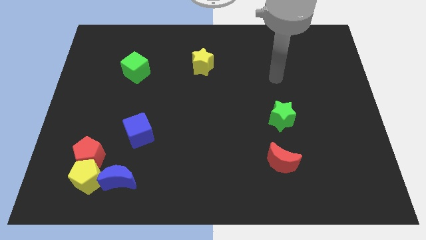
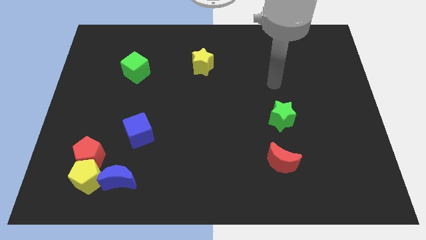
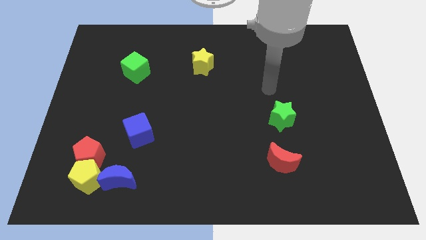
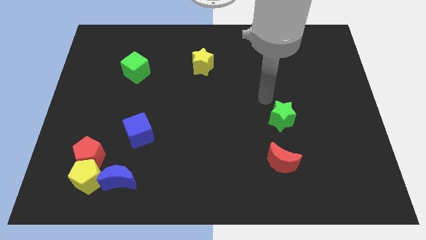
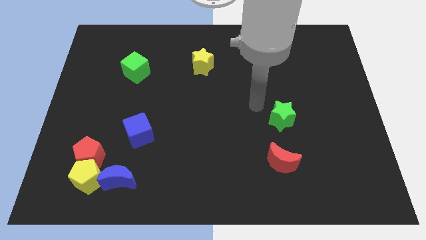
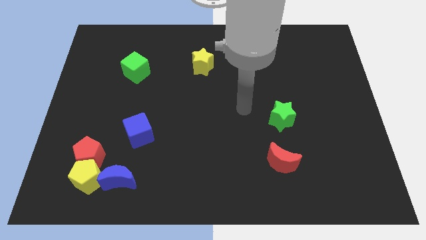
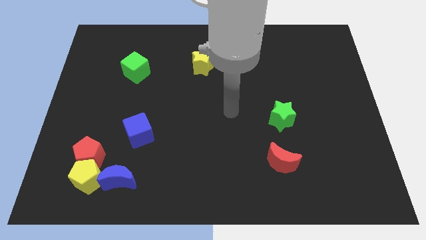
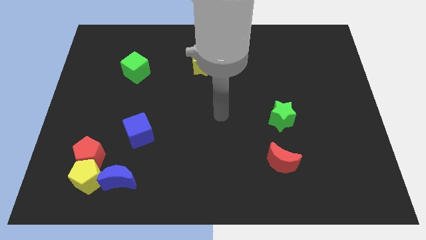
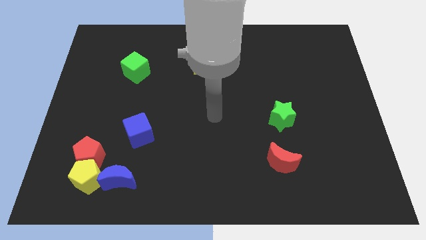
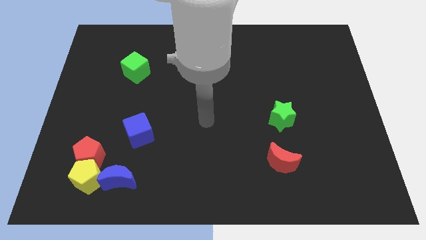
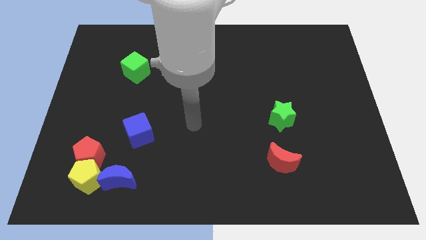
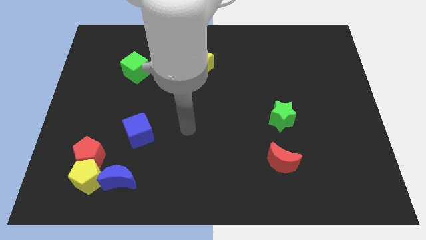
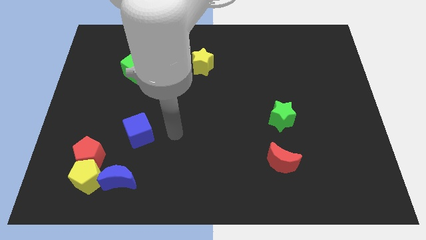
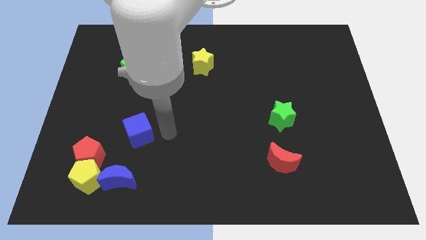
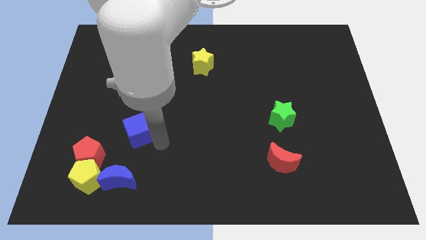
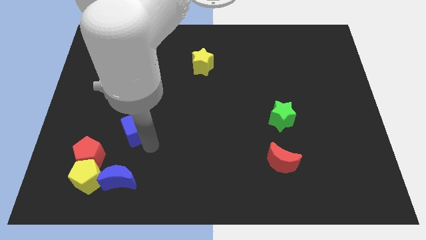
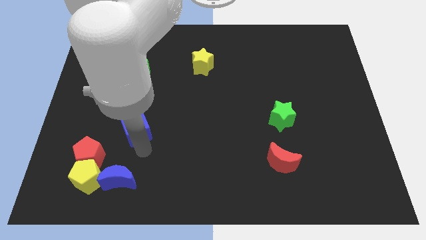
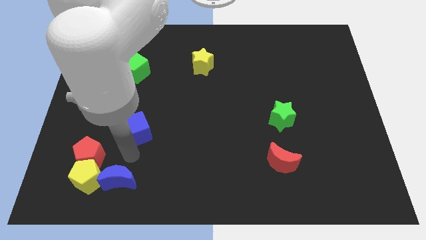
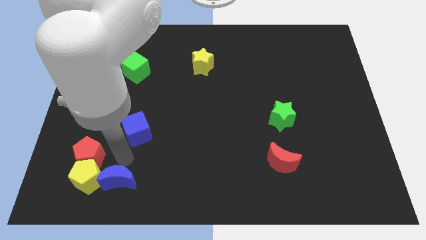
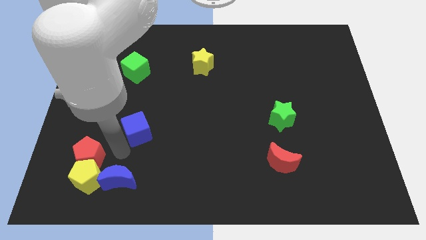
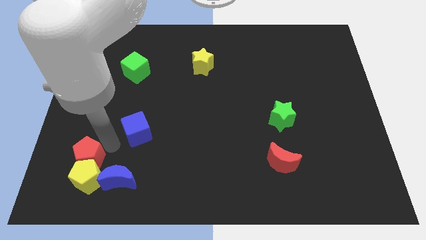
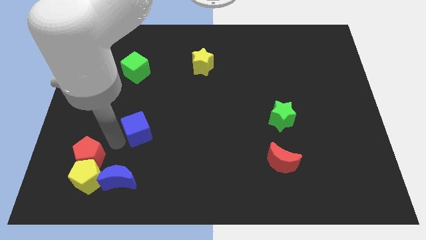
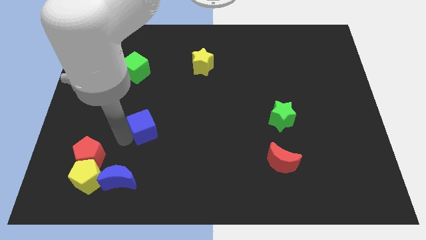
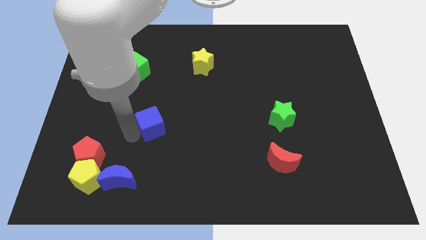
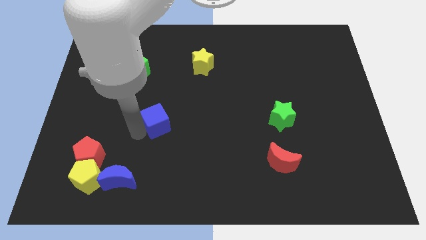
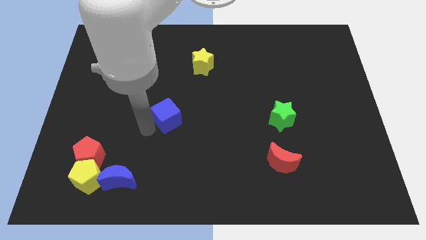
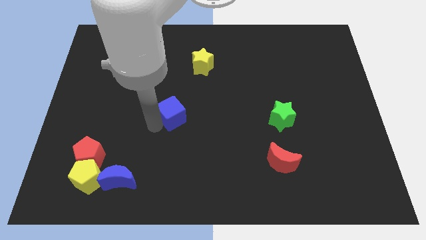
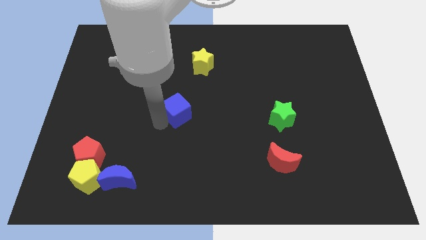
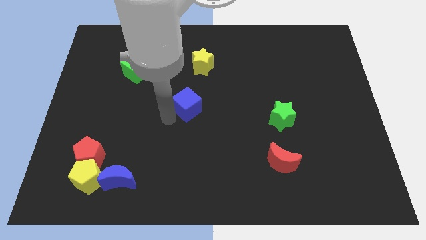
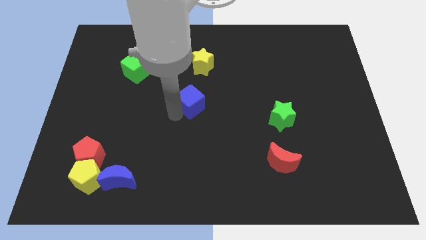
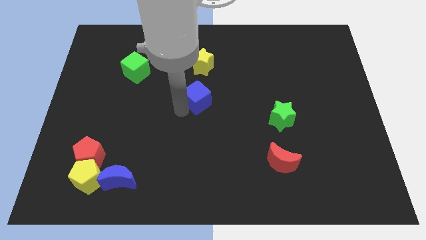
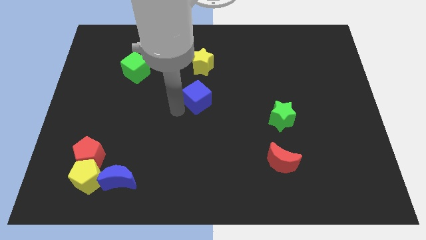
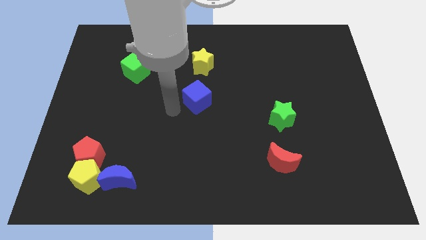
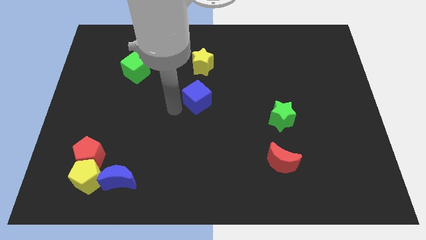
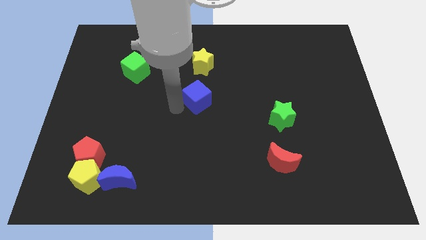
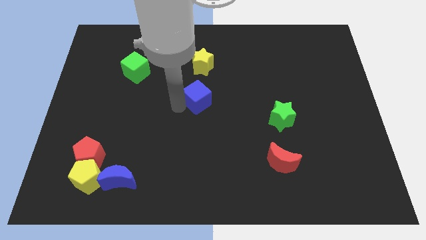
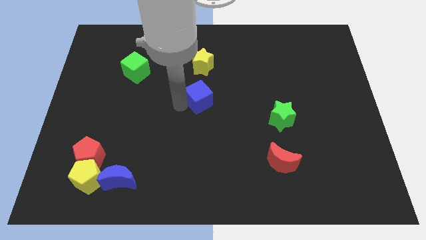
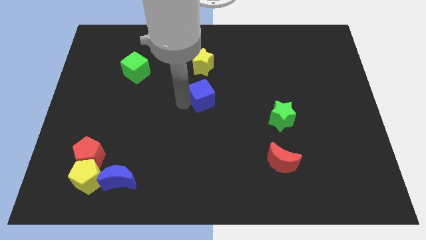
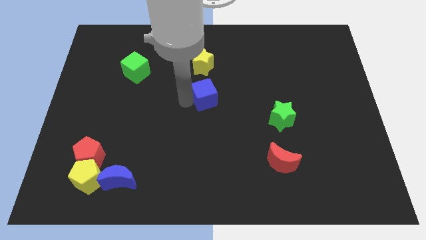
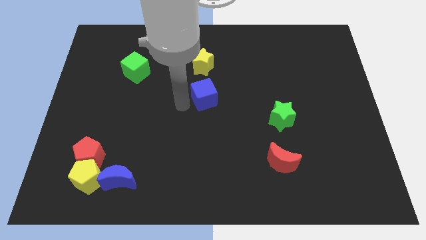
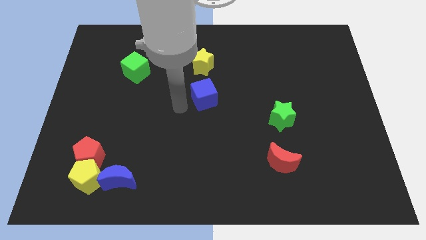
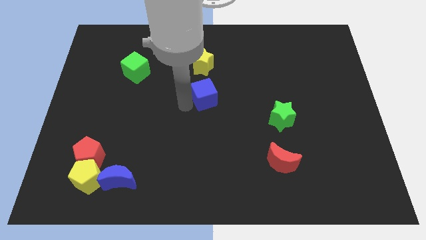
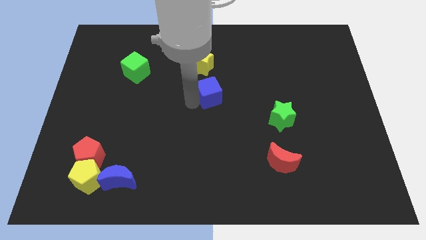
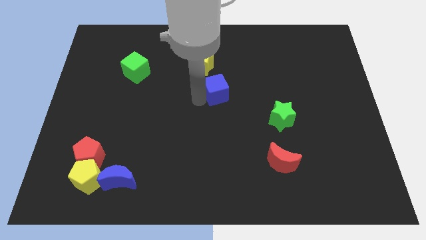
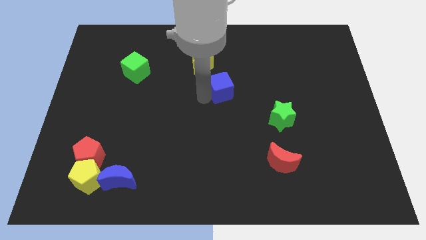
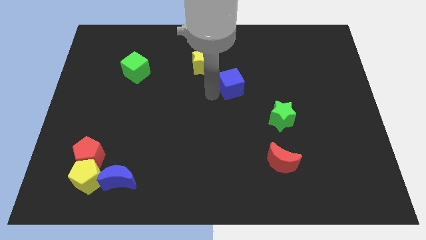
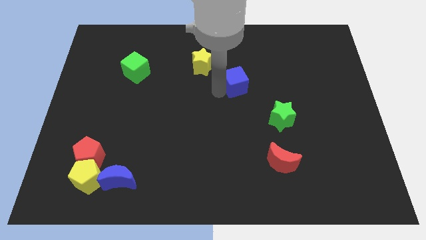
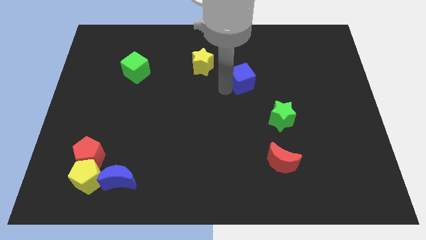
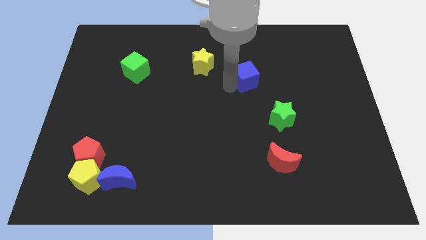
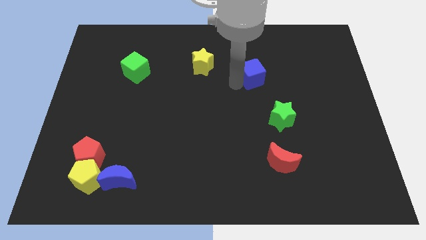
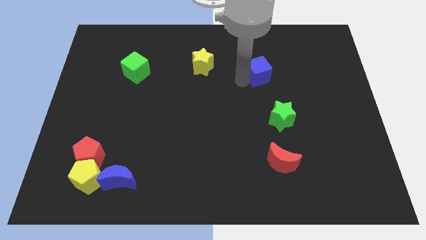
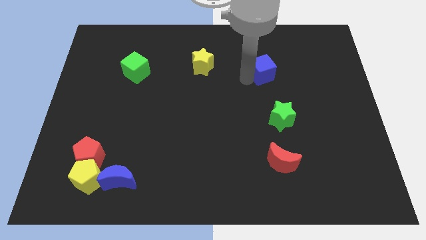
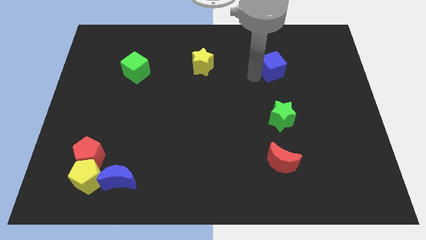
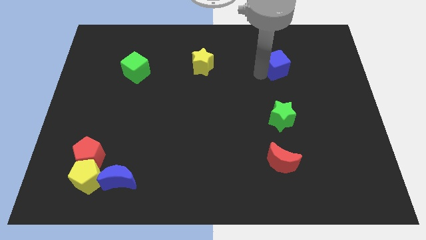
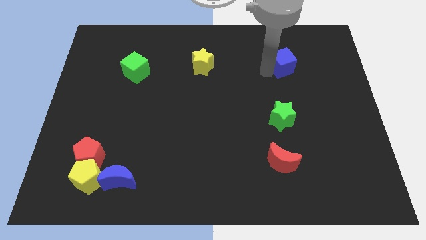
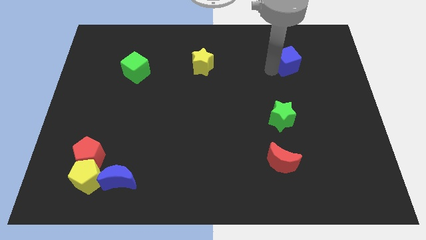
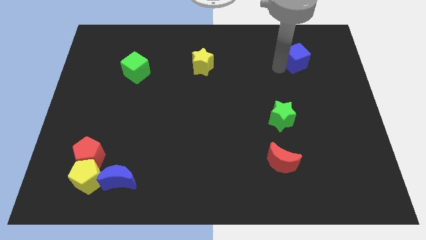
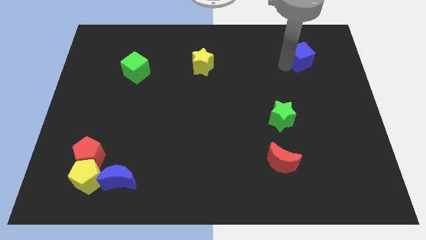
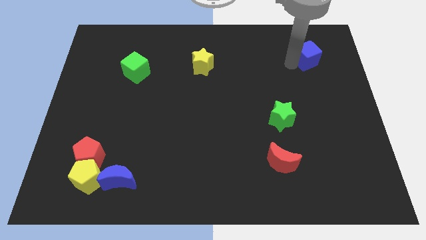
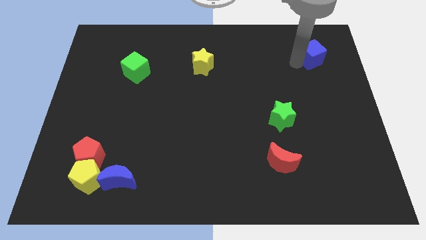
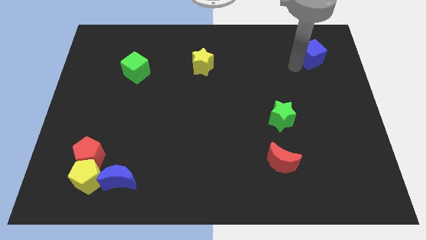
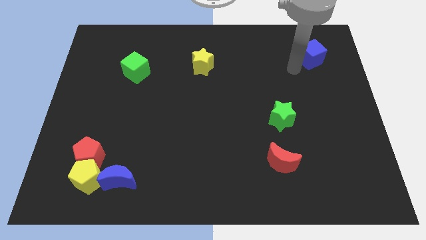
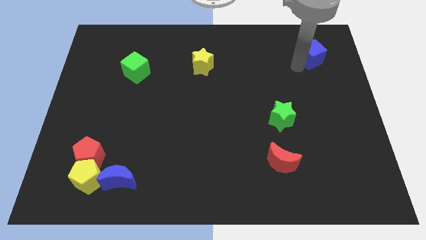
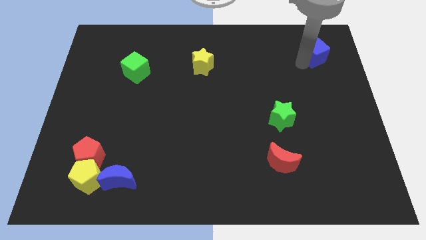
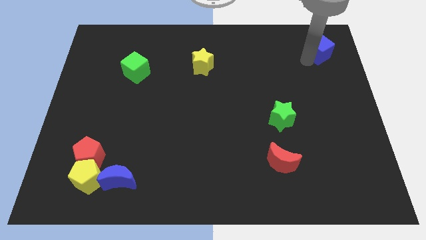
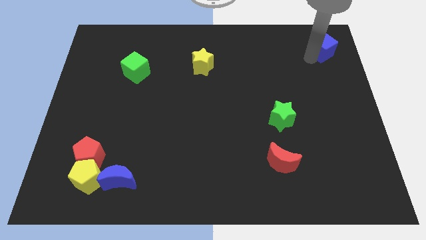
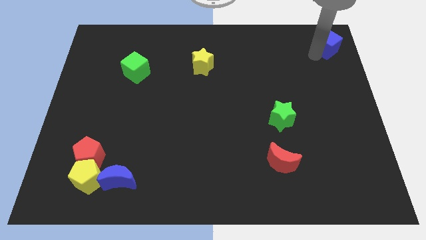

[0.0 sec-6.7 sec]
push the blue cube to the upper right corner

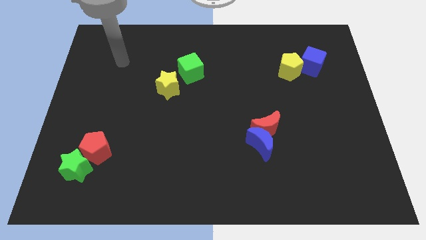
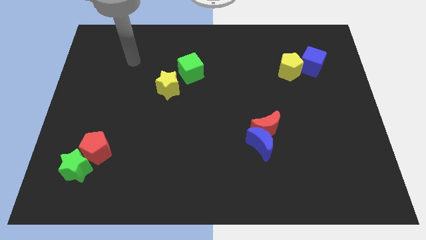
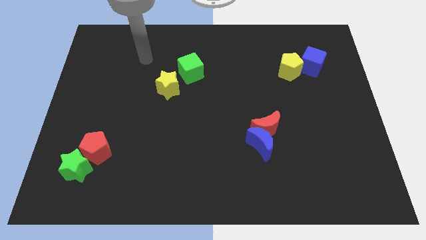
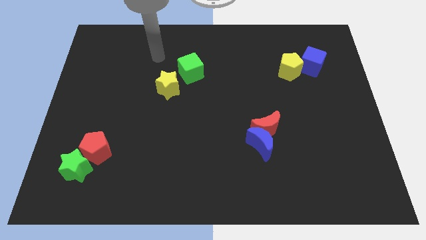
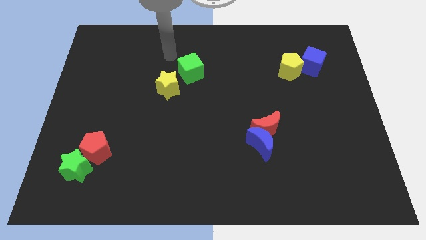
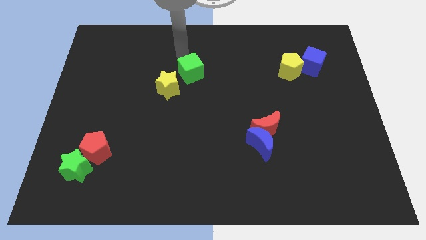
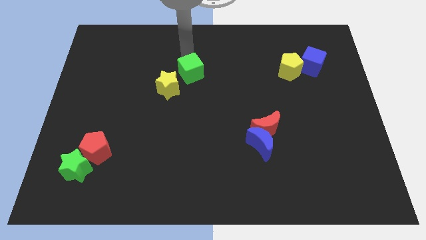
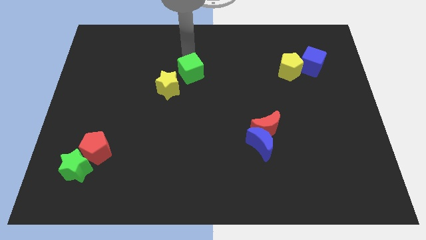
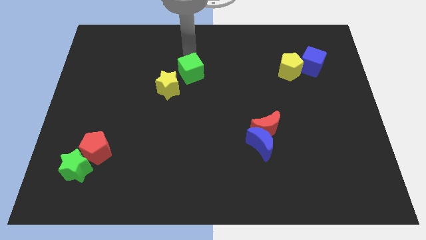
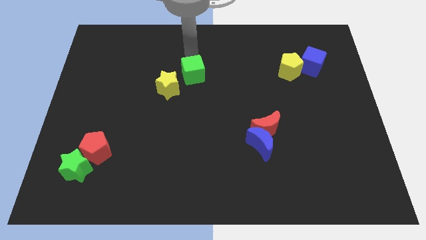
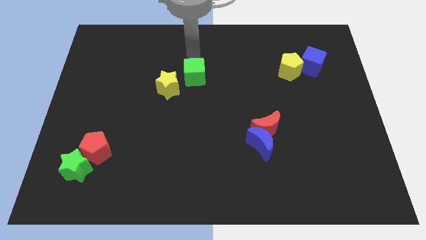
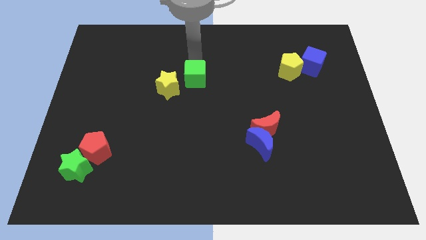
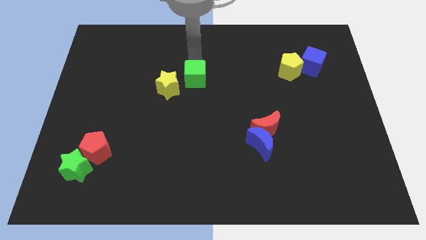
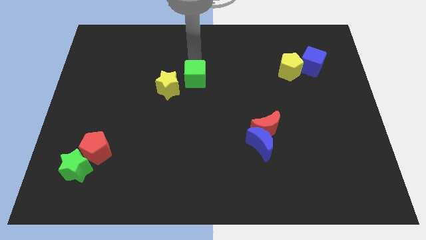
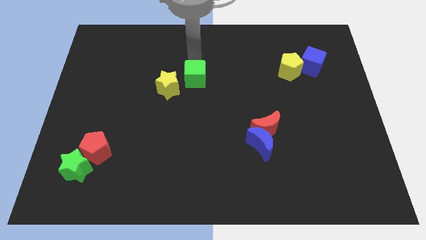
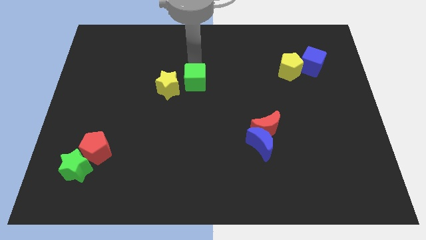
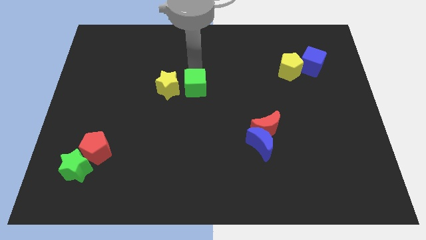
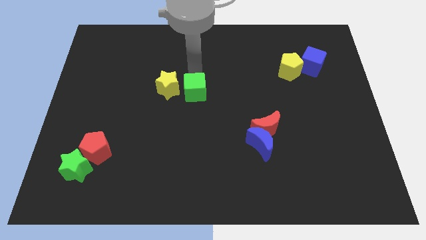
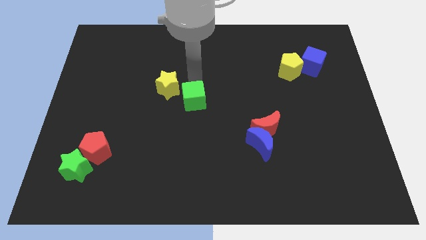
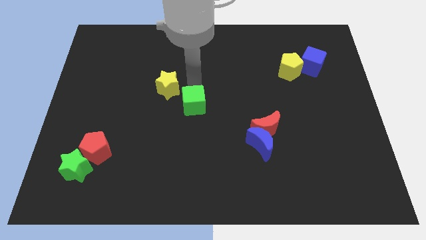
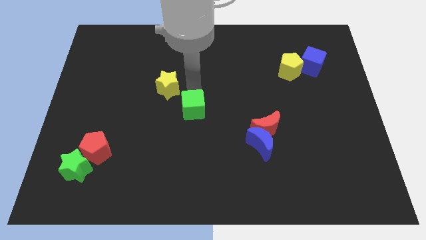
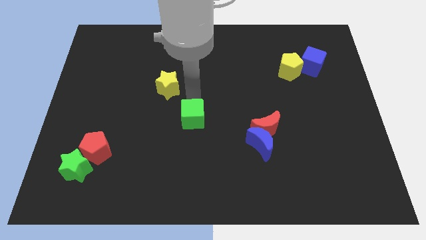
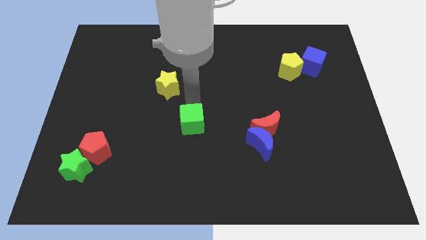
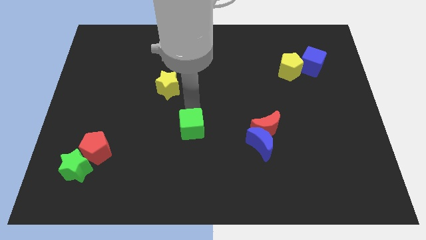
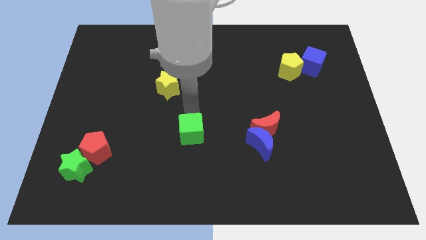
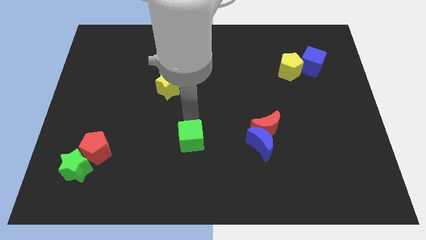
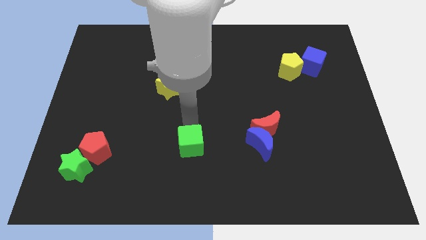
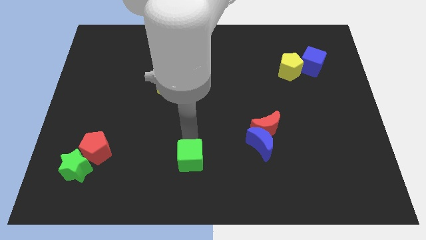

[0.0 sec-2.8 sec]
slide the green cube to the bottom
